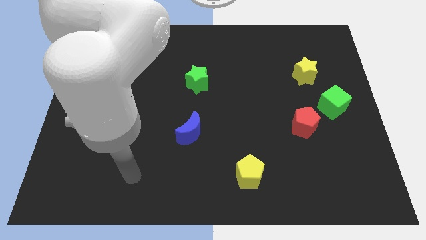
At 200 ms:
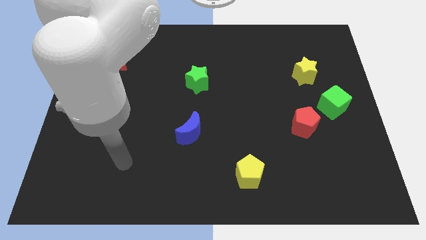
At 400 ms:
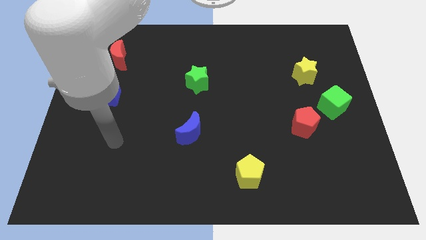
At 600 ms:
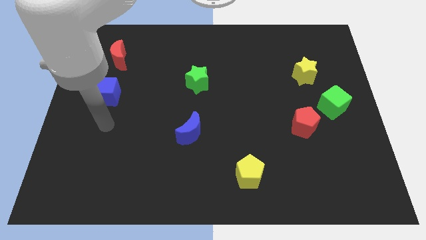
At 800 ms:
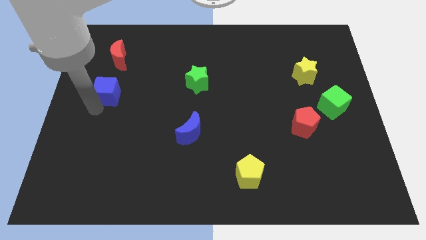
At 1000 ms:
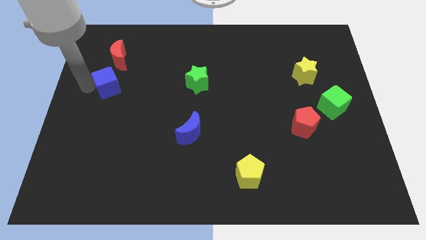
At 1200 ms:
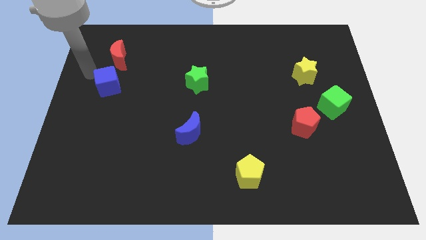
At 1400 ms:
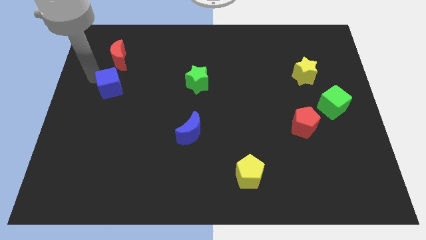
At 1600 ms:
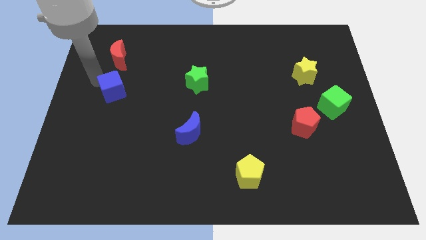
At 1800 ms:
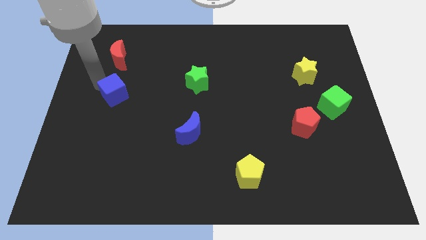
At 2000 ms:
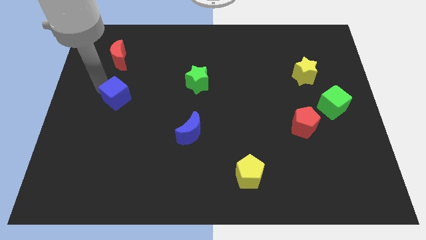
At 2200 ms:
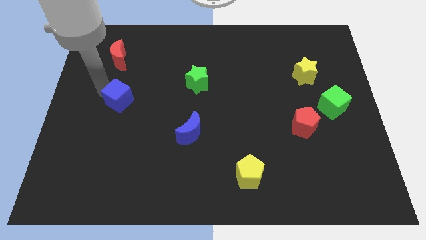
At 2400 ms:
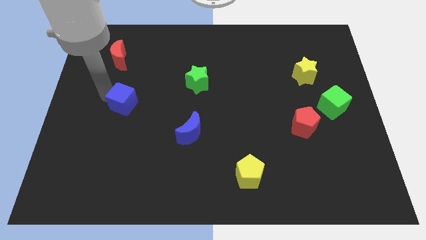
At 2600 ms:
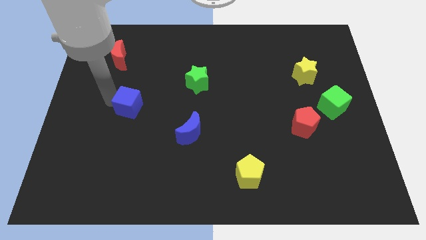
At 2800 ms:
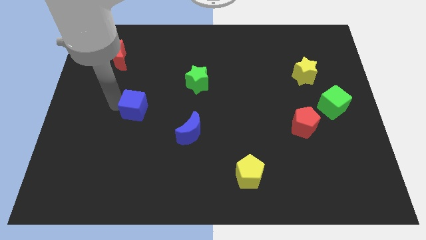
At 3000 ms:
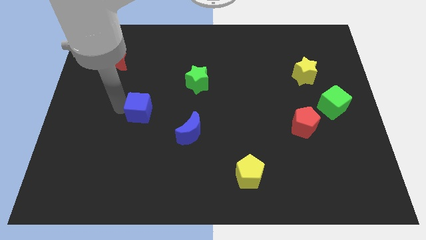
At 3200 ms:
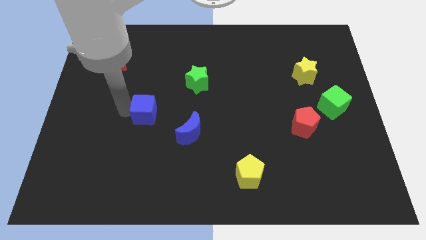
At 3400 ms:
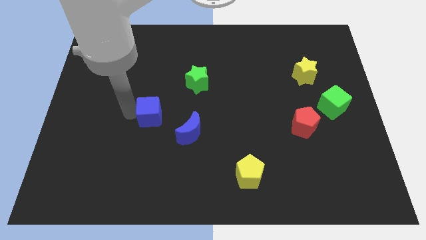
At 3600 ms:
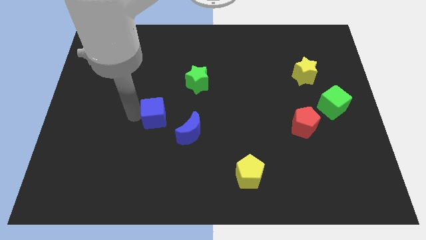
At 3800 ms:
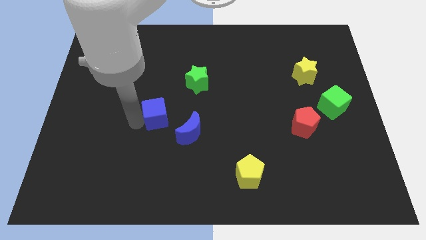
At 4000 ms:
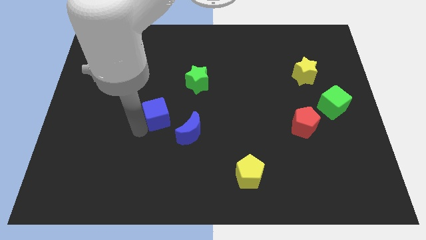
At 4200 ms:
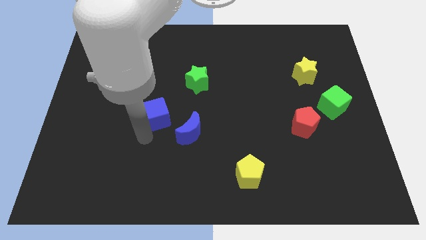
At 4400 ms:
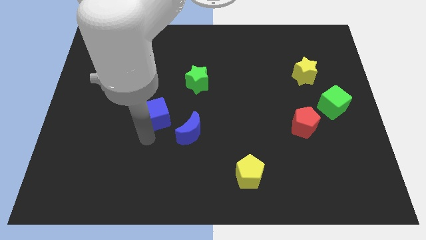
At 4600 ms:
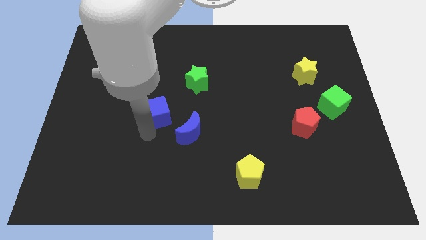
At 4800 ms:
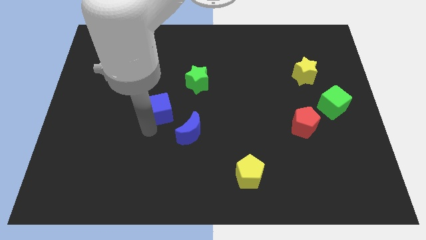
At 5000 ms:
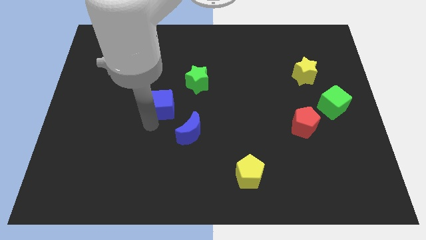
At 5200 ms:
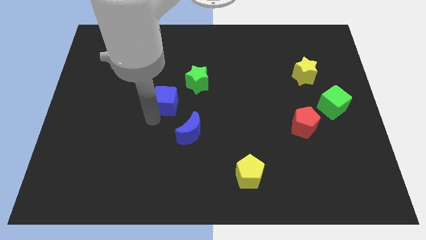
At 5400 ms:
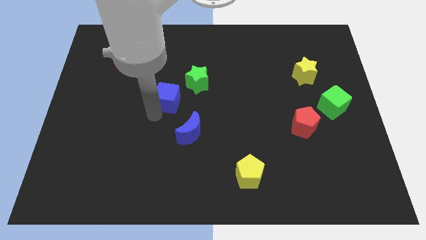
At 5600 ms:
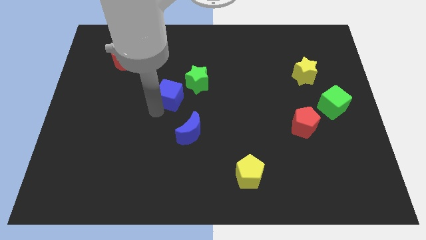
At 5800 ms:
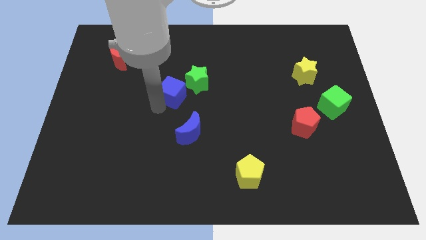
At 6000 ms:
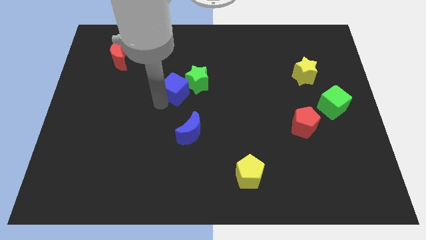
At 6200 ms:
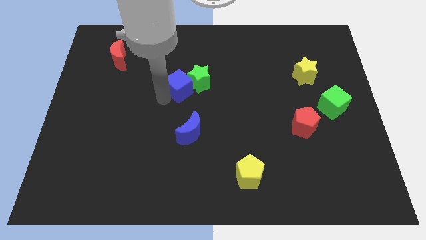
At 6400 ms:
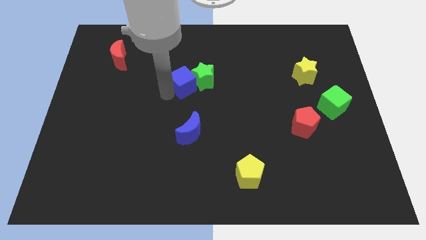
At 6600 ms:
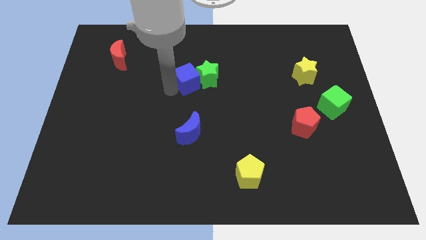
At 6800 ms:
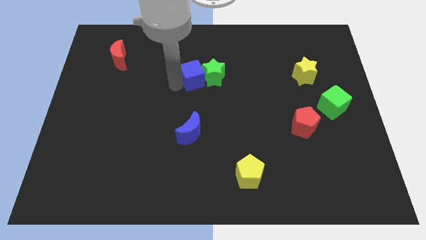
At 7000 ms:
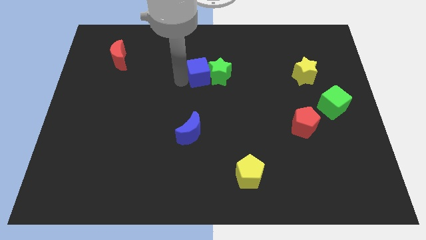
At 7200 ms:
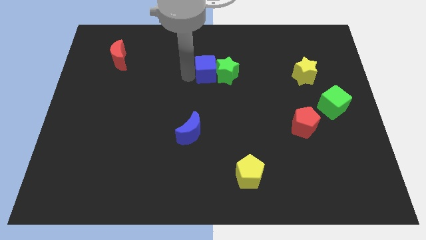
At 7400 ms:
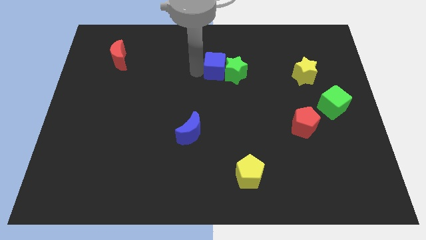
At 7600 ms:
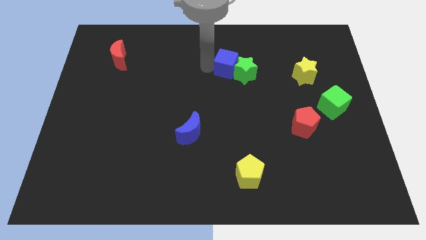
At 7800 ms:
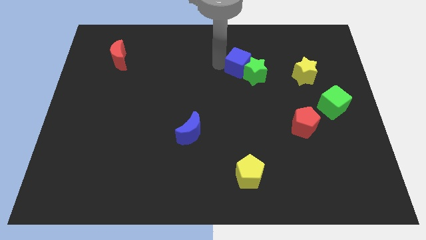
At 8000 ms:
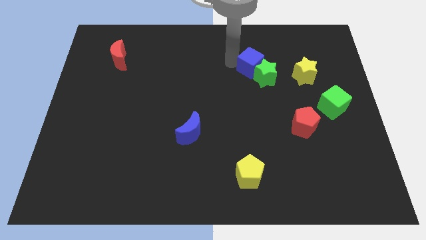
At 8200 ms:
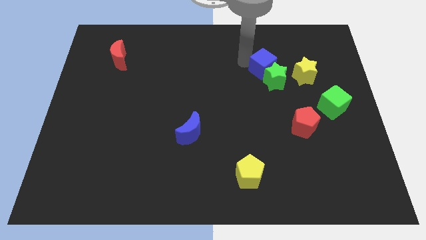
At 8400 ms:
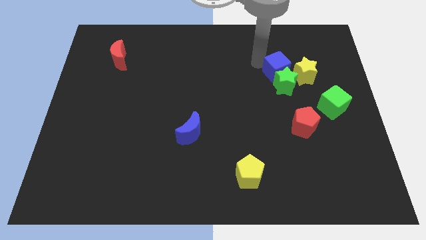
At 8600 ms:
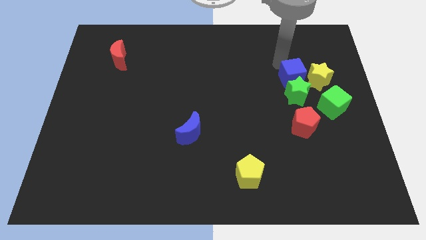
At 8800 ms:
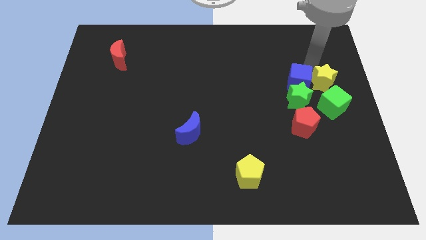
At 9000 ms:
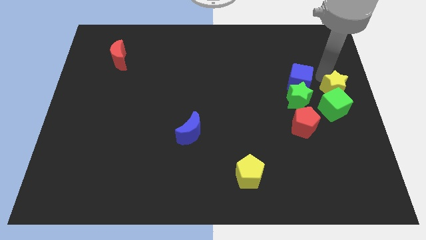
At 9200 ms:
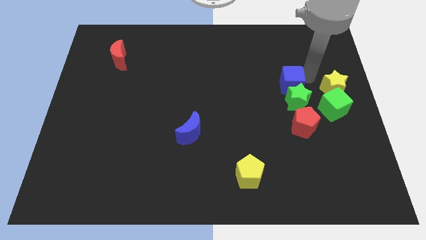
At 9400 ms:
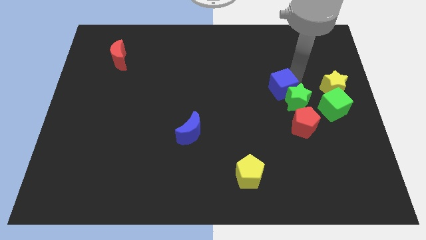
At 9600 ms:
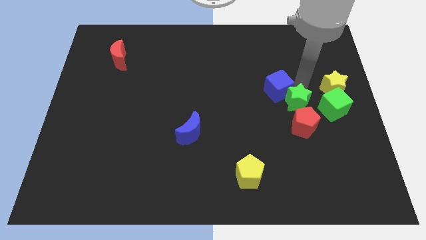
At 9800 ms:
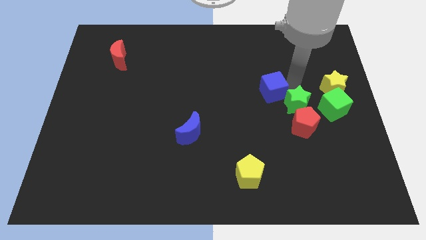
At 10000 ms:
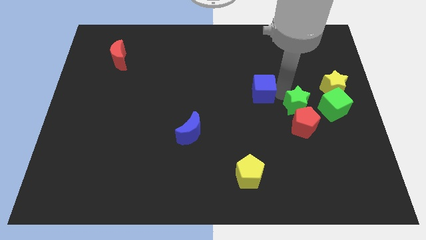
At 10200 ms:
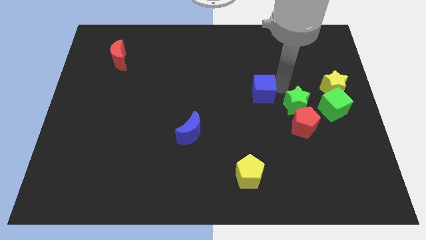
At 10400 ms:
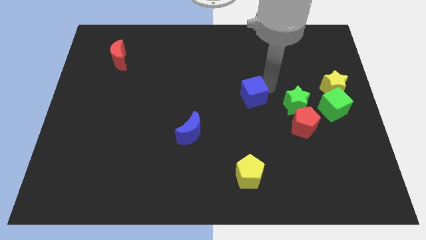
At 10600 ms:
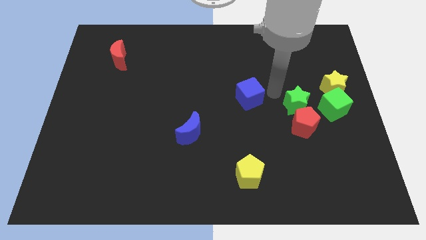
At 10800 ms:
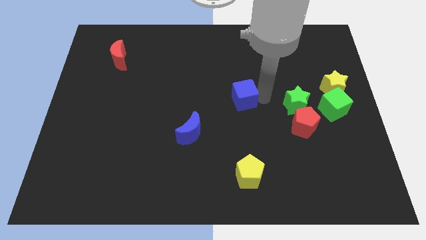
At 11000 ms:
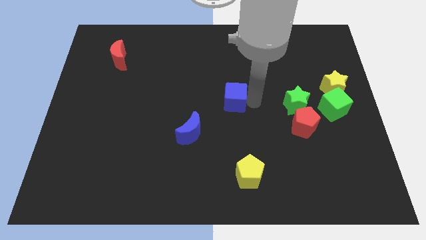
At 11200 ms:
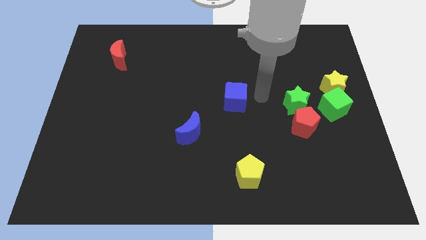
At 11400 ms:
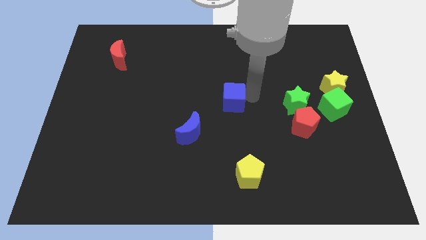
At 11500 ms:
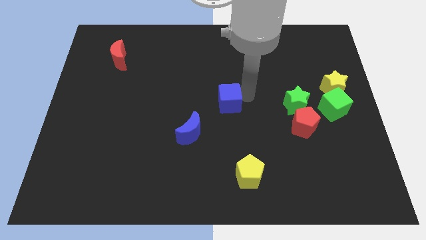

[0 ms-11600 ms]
put the blue cube to the top right side of the blue moon

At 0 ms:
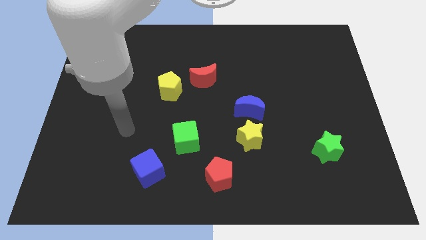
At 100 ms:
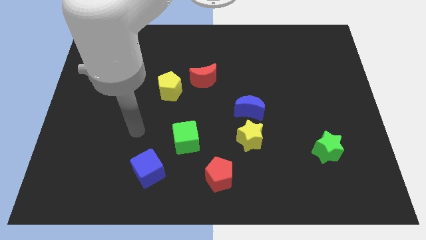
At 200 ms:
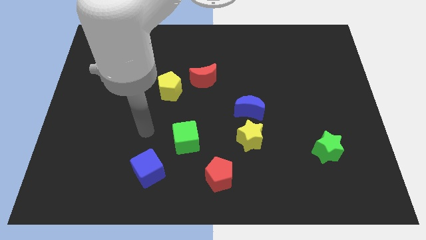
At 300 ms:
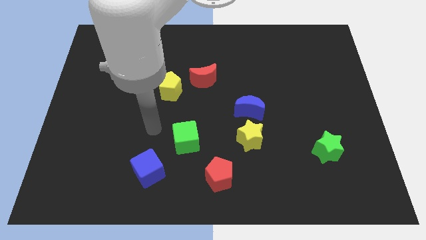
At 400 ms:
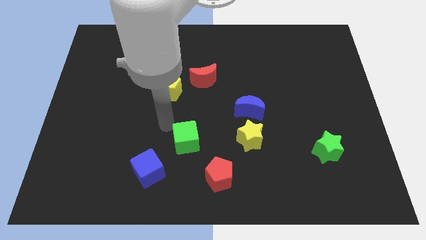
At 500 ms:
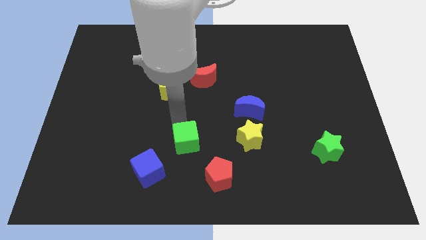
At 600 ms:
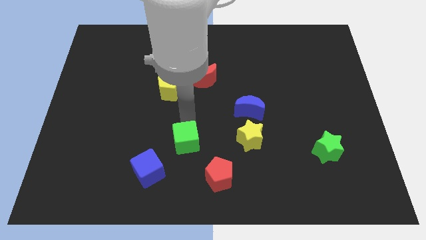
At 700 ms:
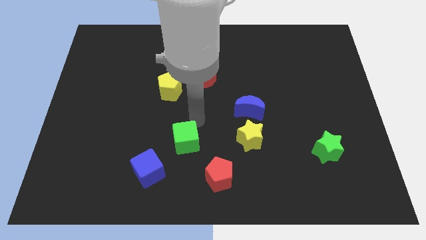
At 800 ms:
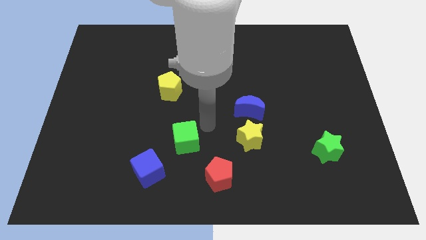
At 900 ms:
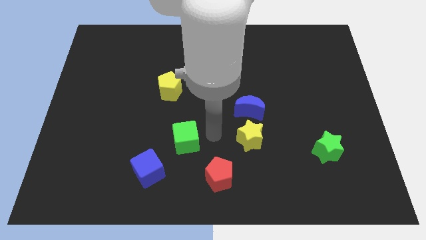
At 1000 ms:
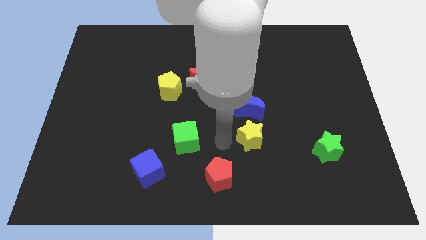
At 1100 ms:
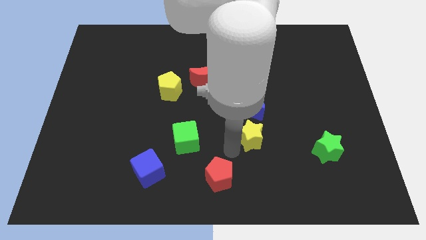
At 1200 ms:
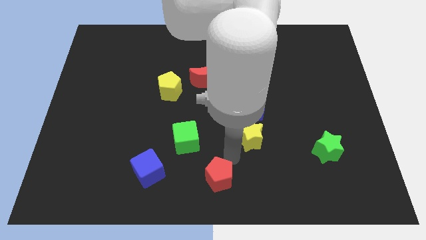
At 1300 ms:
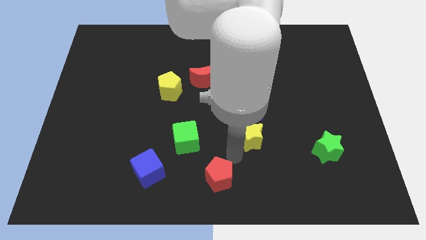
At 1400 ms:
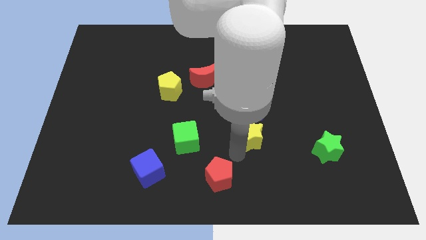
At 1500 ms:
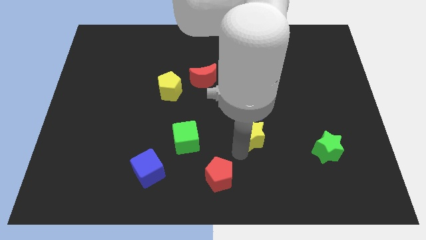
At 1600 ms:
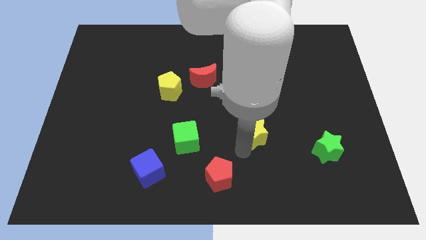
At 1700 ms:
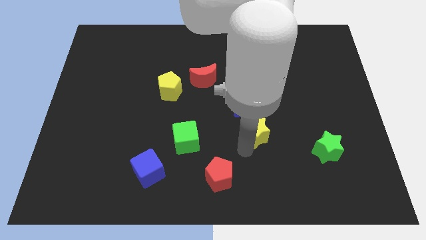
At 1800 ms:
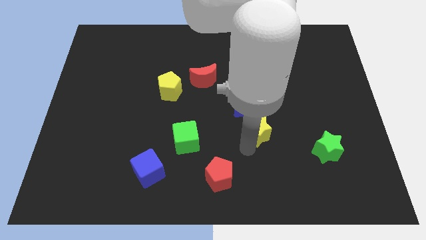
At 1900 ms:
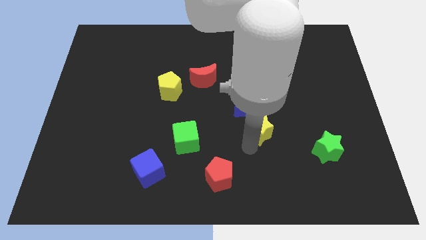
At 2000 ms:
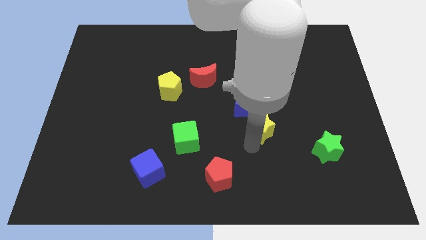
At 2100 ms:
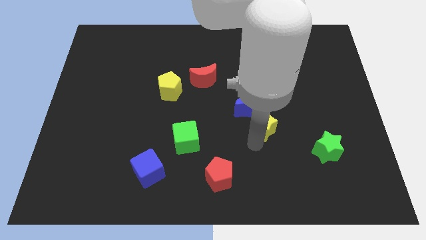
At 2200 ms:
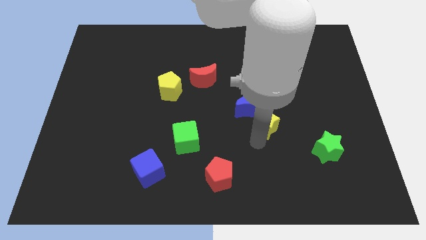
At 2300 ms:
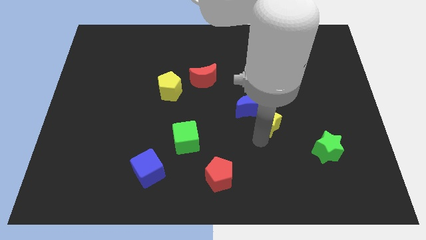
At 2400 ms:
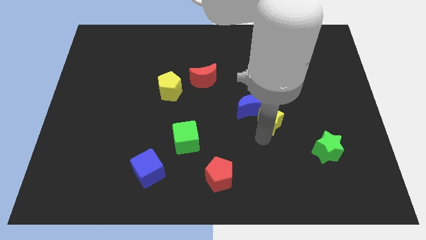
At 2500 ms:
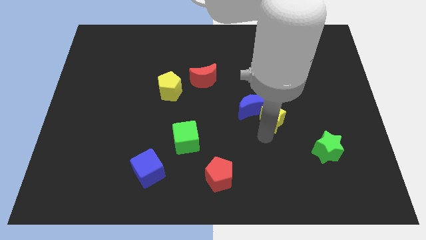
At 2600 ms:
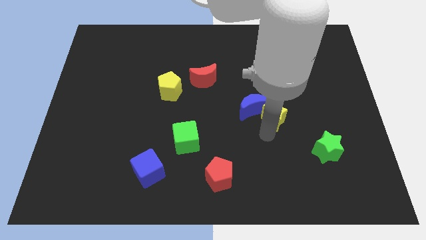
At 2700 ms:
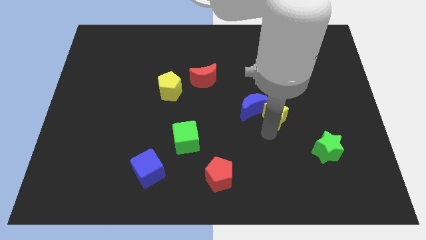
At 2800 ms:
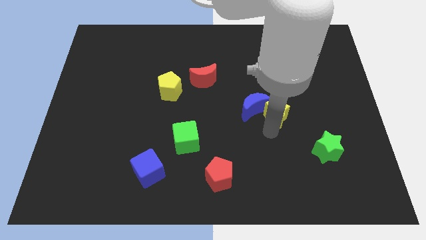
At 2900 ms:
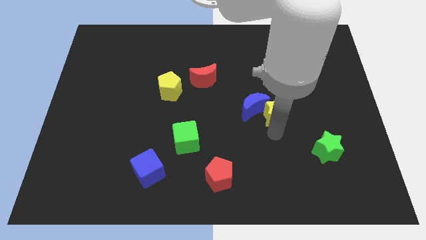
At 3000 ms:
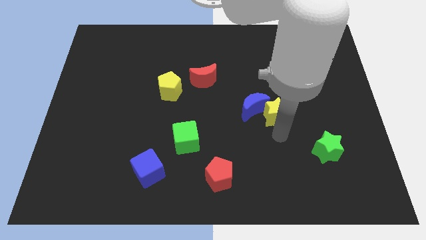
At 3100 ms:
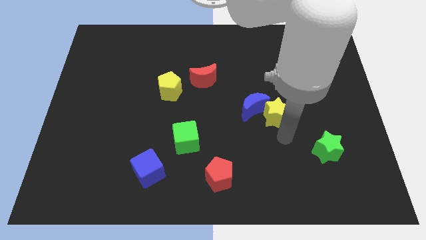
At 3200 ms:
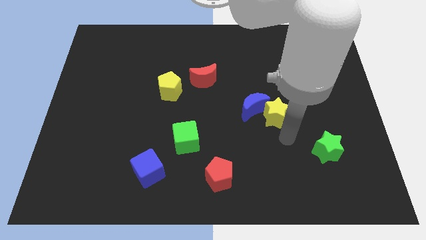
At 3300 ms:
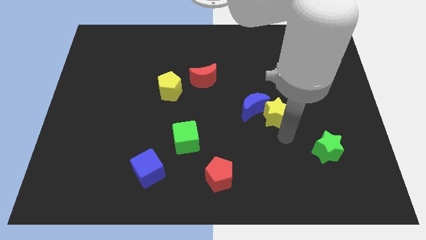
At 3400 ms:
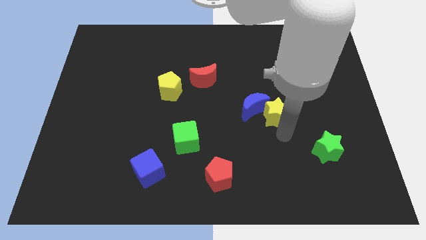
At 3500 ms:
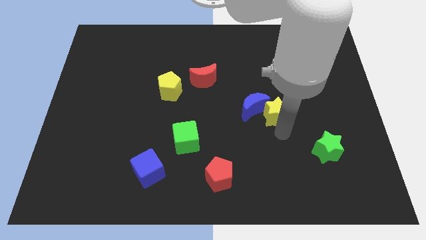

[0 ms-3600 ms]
slide the yellow star to the top right side of the blue moon
